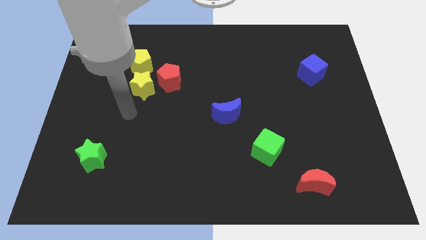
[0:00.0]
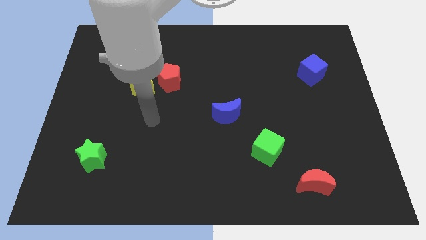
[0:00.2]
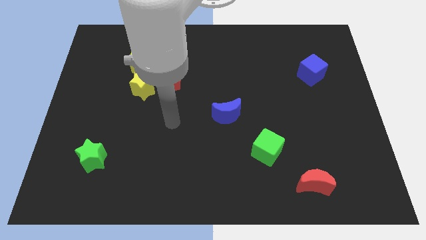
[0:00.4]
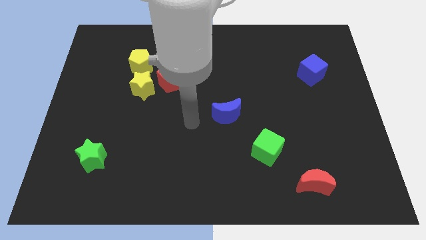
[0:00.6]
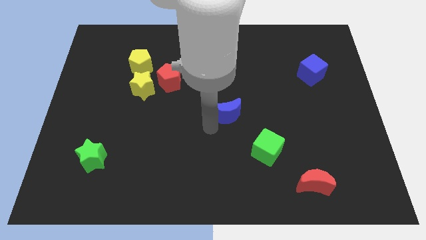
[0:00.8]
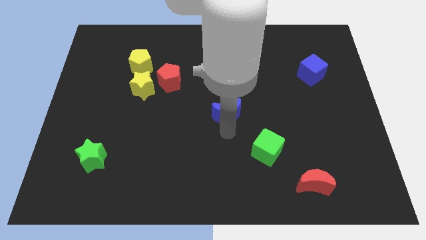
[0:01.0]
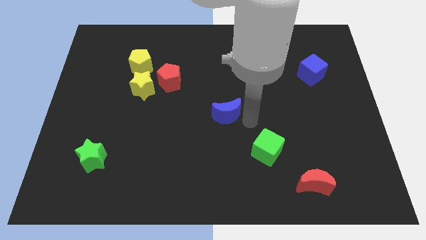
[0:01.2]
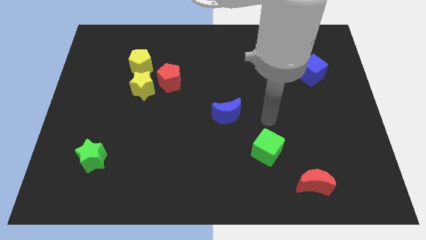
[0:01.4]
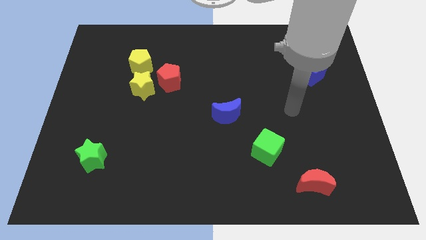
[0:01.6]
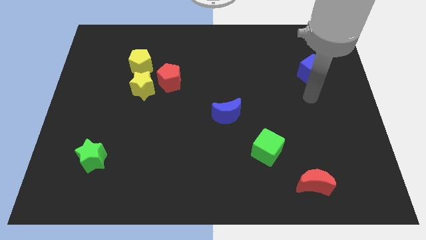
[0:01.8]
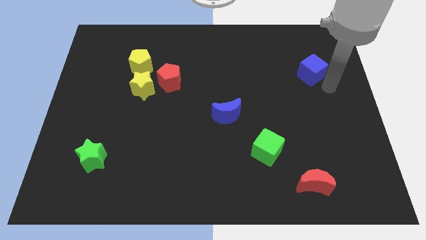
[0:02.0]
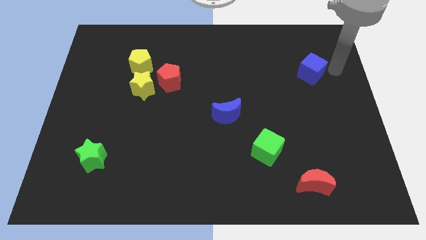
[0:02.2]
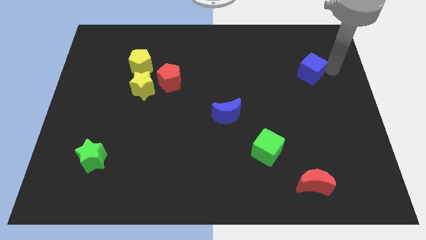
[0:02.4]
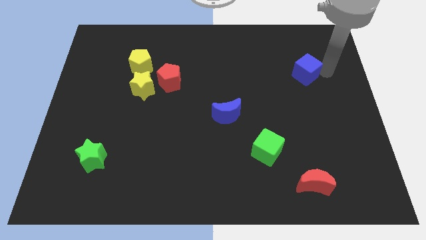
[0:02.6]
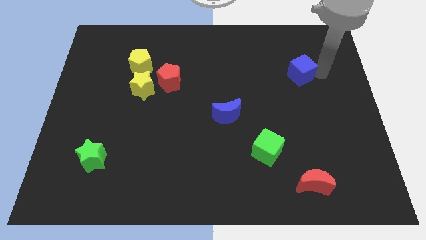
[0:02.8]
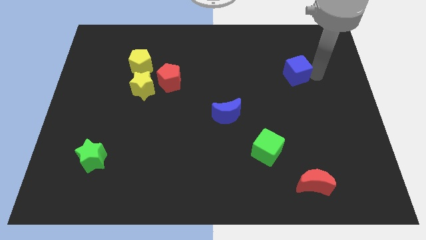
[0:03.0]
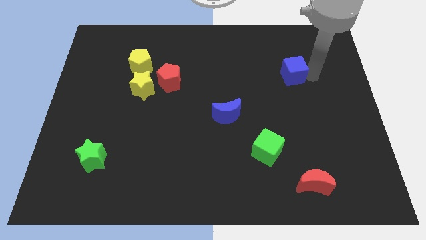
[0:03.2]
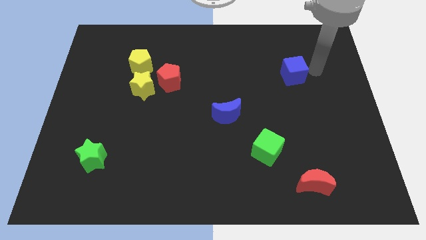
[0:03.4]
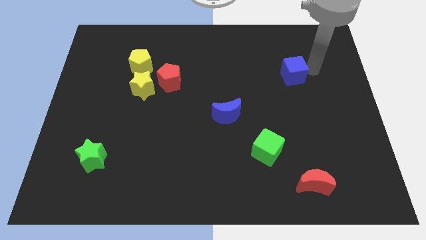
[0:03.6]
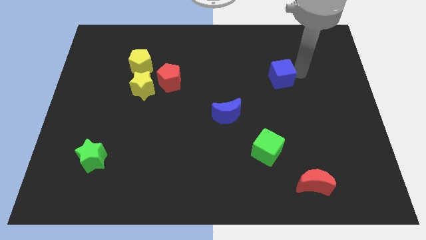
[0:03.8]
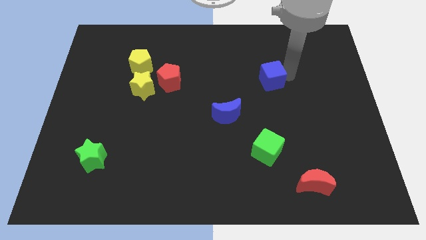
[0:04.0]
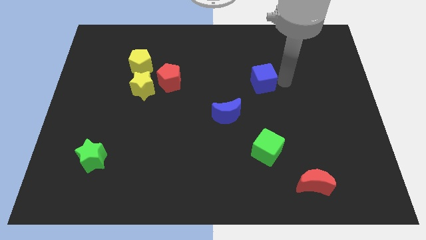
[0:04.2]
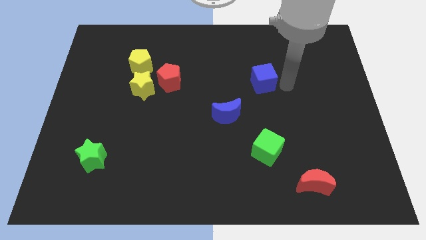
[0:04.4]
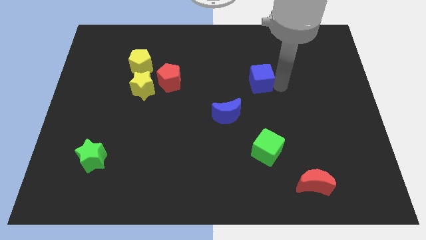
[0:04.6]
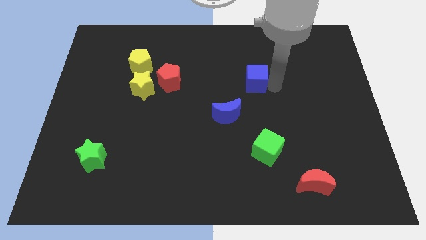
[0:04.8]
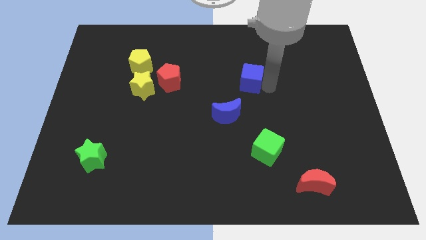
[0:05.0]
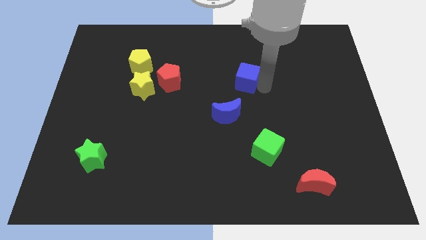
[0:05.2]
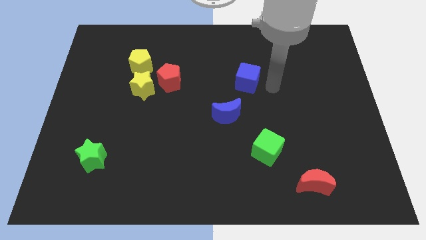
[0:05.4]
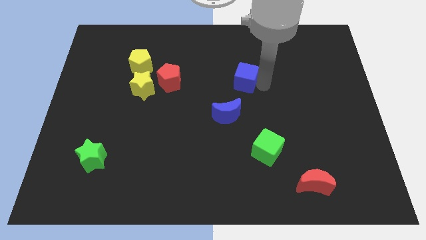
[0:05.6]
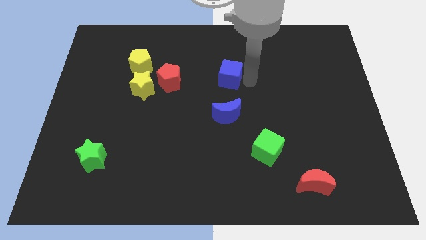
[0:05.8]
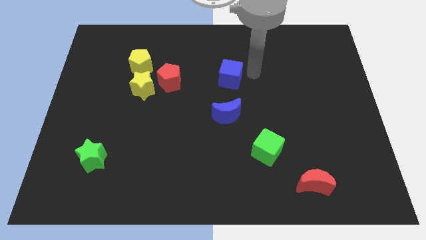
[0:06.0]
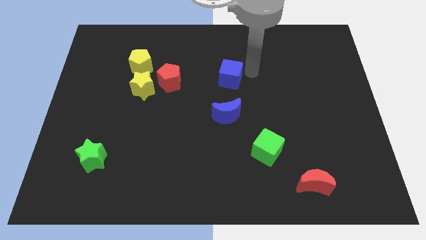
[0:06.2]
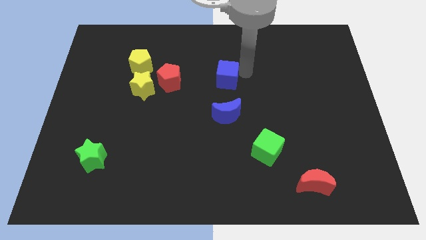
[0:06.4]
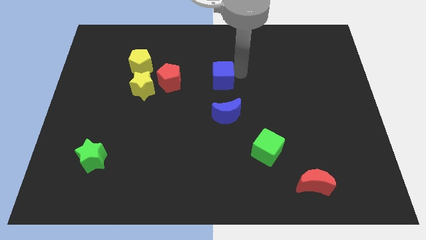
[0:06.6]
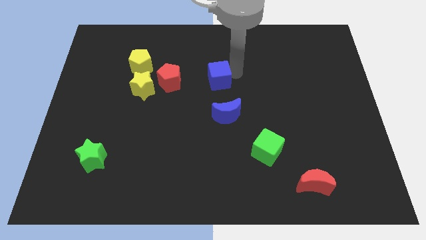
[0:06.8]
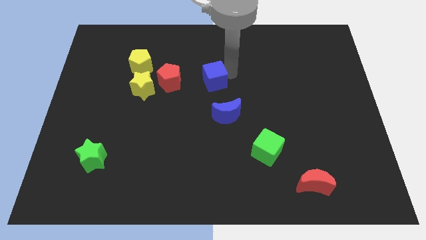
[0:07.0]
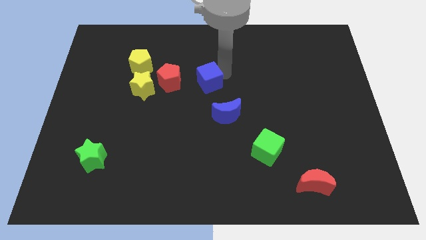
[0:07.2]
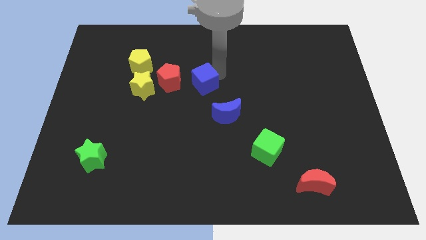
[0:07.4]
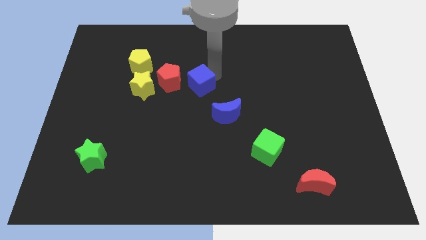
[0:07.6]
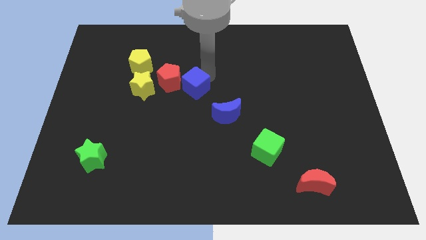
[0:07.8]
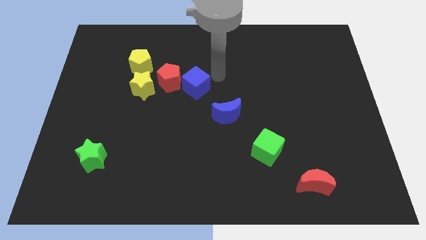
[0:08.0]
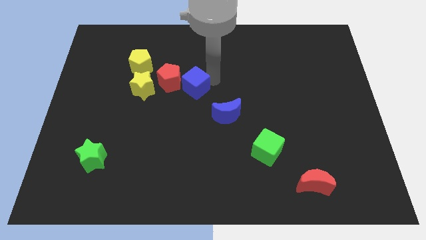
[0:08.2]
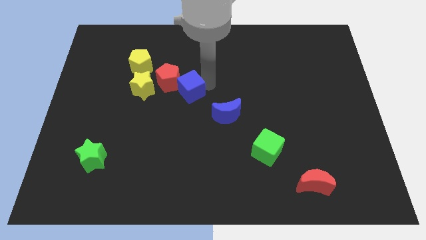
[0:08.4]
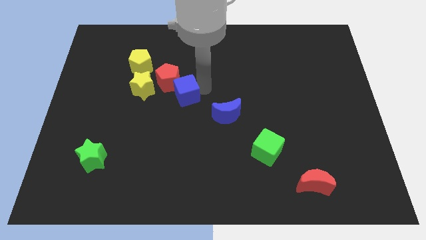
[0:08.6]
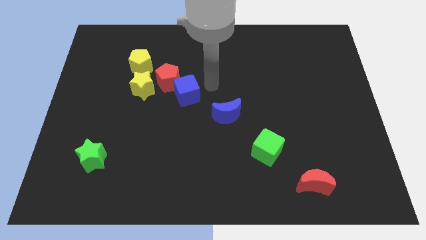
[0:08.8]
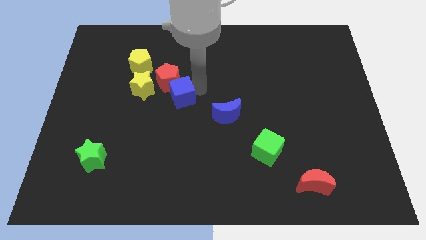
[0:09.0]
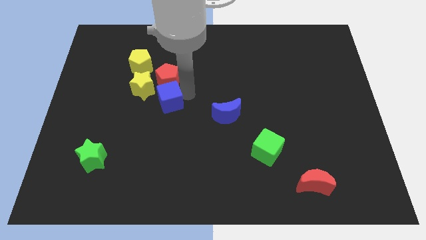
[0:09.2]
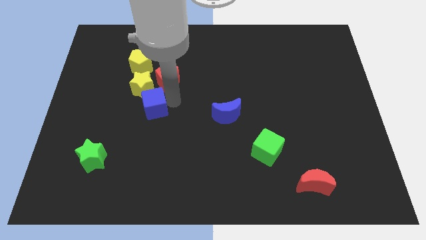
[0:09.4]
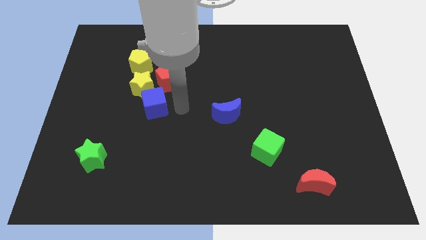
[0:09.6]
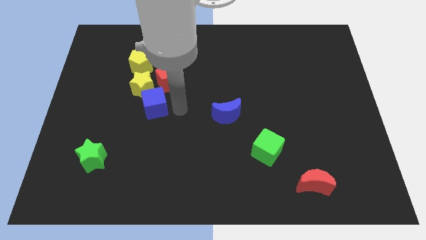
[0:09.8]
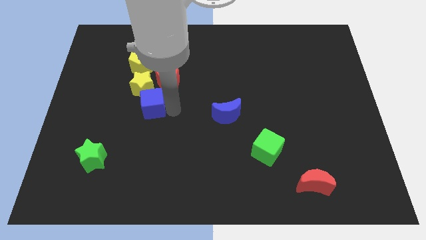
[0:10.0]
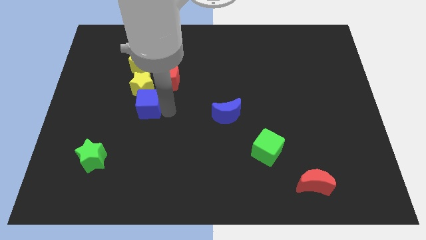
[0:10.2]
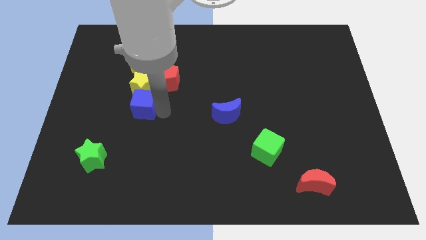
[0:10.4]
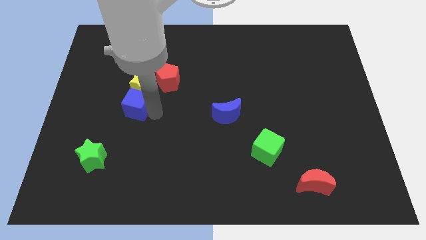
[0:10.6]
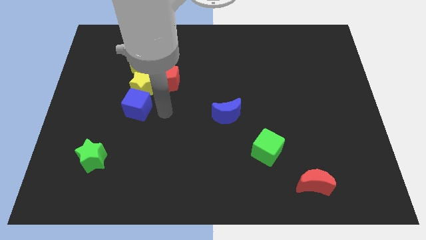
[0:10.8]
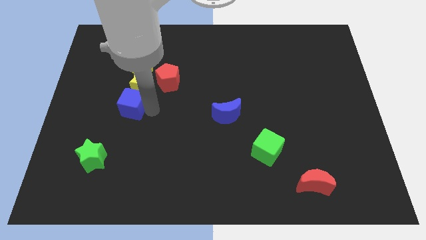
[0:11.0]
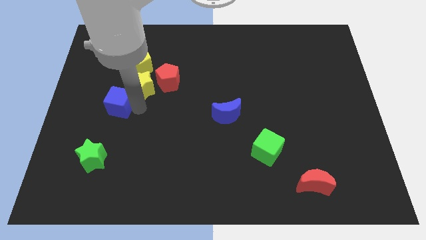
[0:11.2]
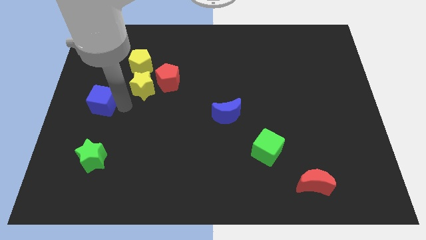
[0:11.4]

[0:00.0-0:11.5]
push the blue cube to the center left

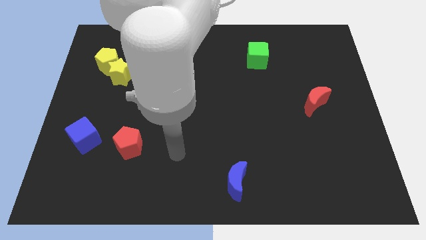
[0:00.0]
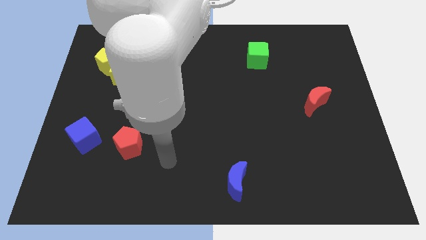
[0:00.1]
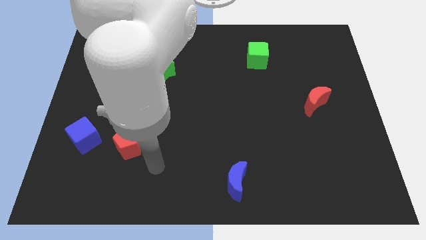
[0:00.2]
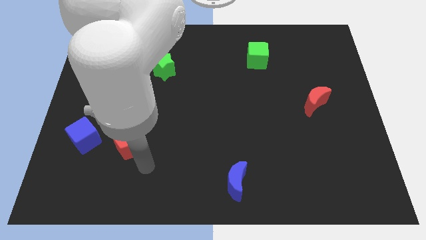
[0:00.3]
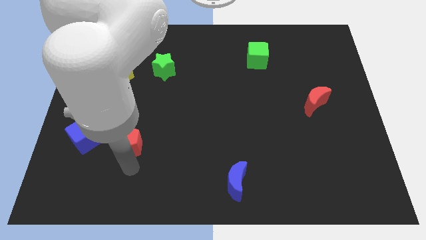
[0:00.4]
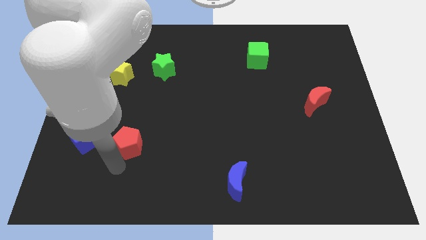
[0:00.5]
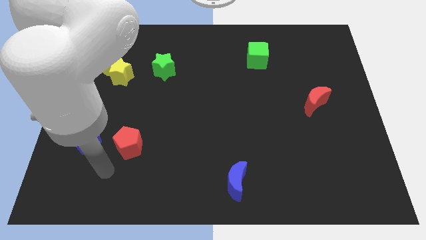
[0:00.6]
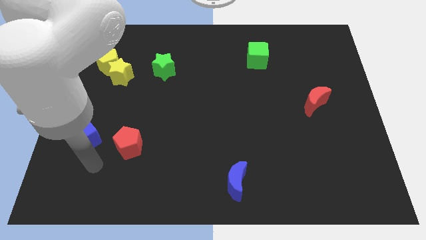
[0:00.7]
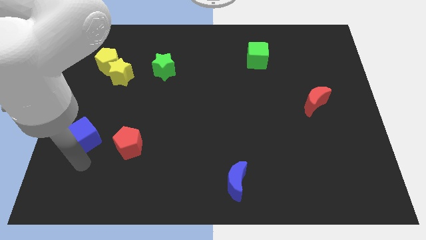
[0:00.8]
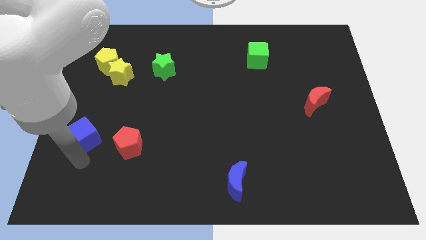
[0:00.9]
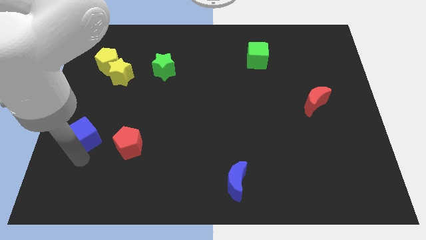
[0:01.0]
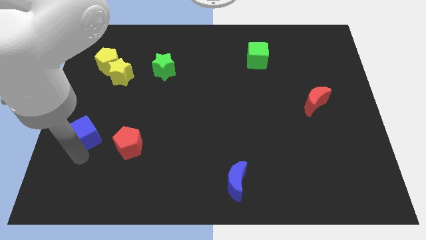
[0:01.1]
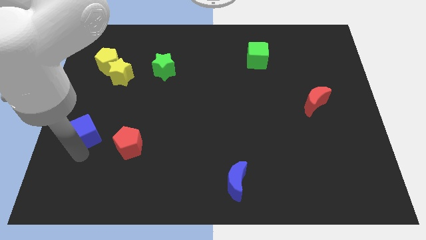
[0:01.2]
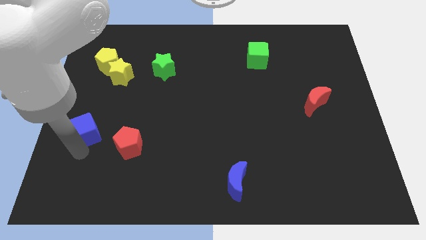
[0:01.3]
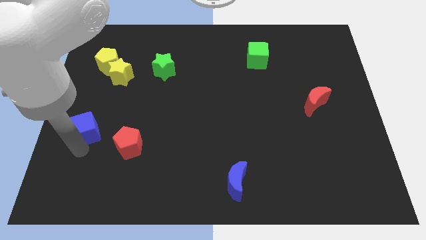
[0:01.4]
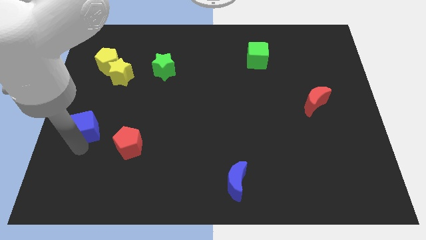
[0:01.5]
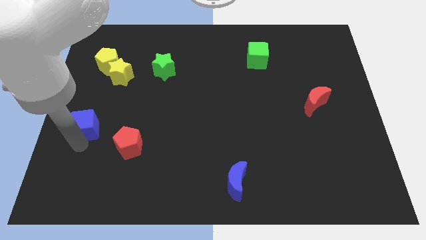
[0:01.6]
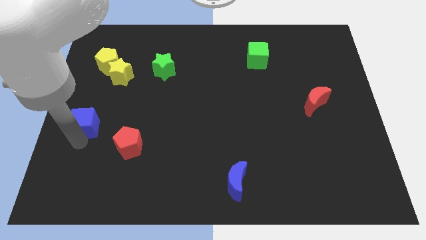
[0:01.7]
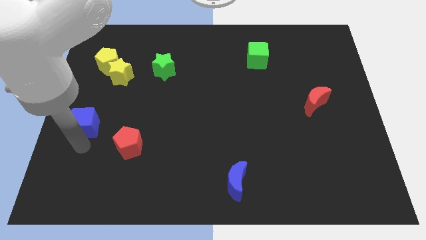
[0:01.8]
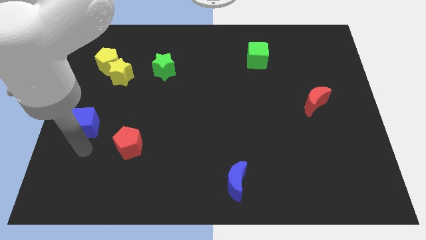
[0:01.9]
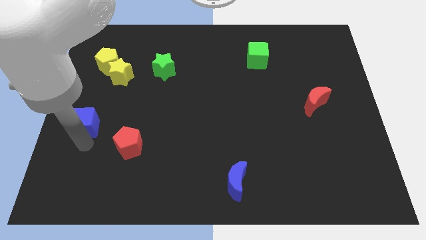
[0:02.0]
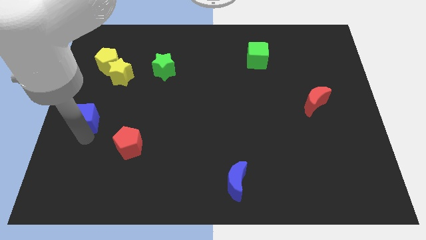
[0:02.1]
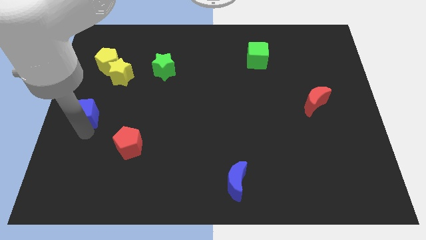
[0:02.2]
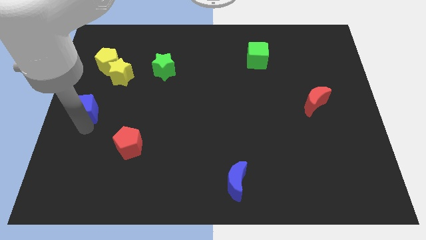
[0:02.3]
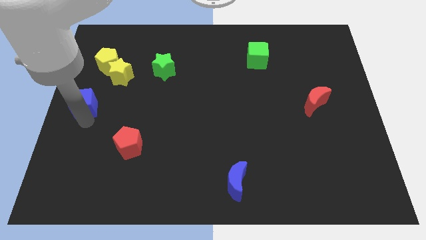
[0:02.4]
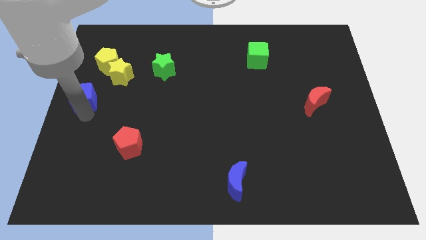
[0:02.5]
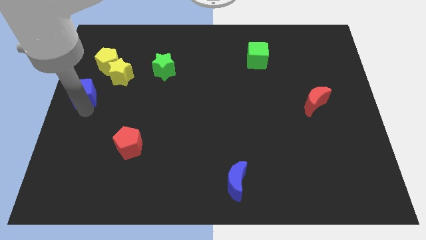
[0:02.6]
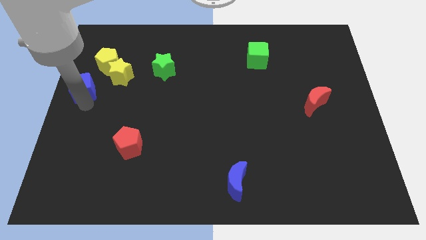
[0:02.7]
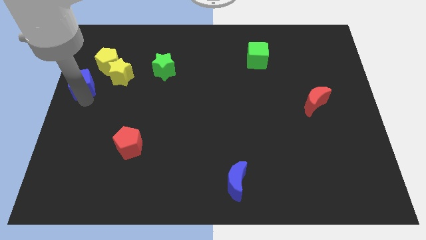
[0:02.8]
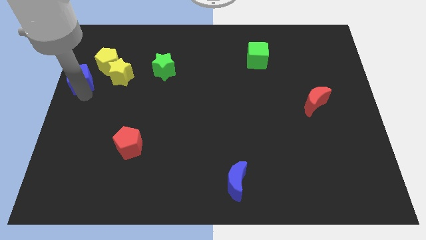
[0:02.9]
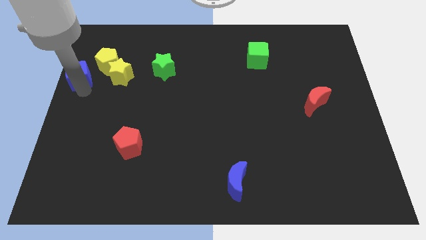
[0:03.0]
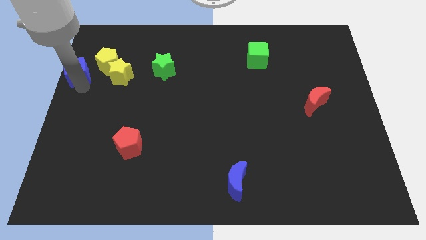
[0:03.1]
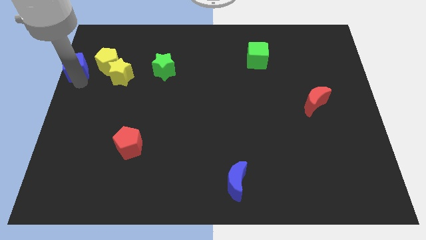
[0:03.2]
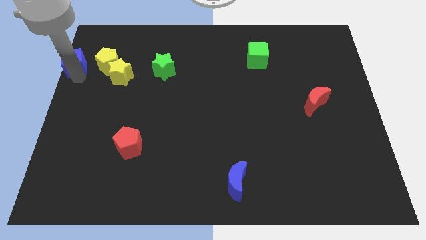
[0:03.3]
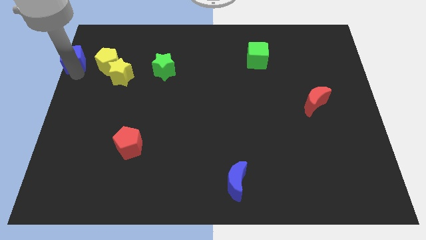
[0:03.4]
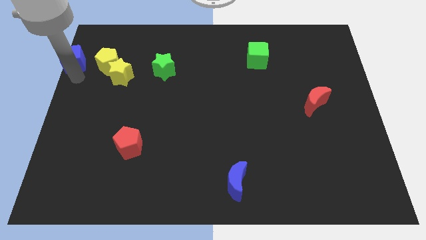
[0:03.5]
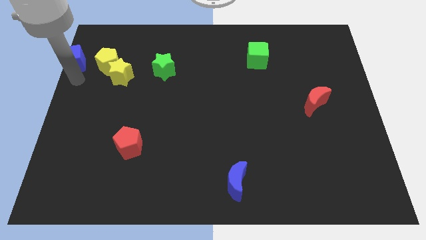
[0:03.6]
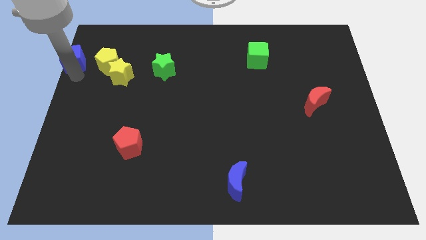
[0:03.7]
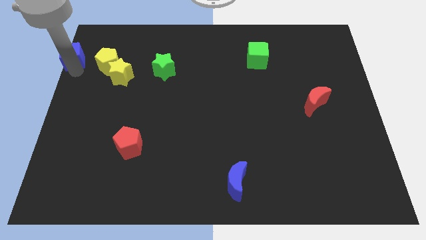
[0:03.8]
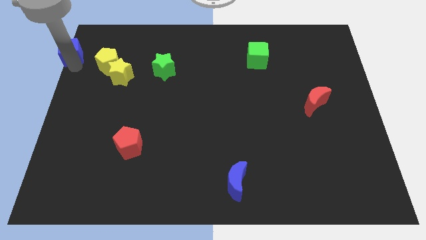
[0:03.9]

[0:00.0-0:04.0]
put the blue cube to the top left of the board
